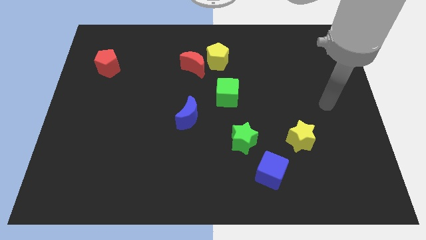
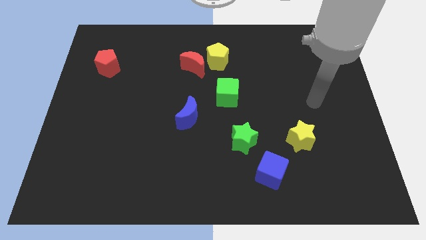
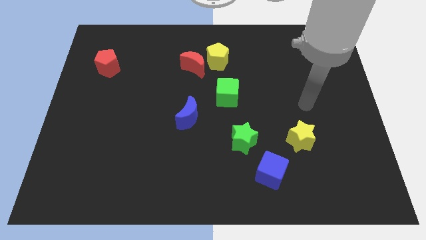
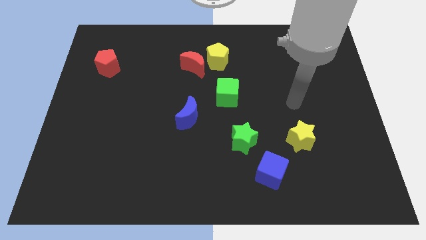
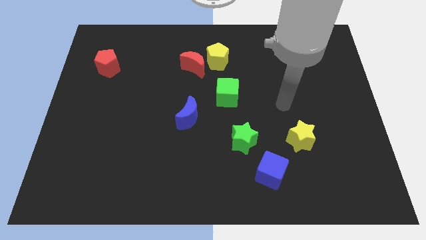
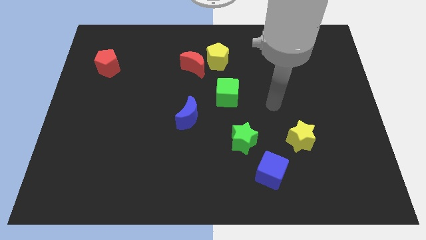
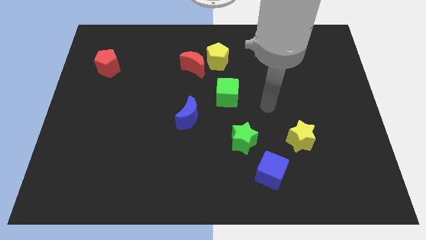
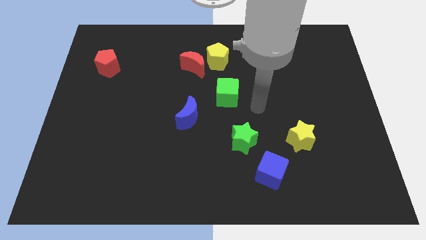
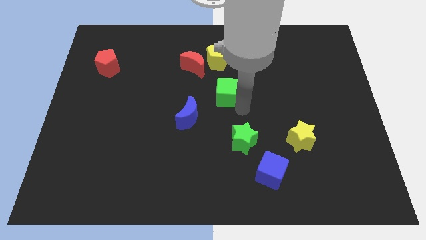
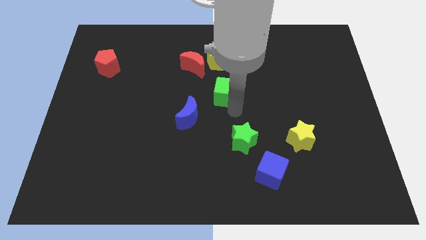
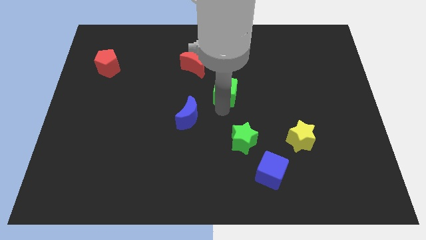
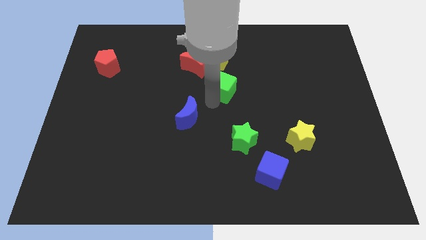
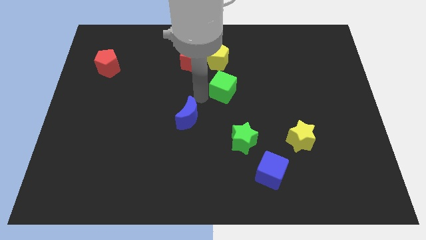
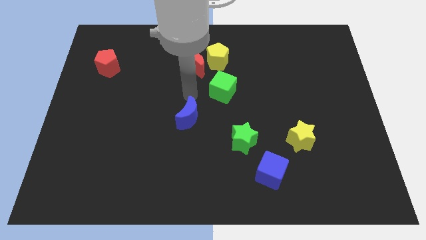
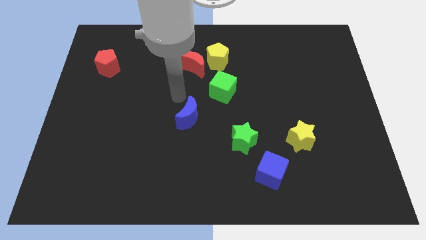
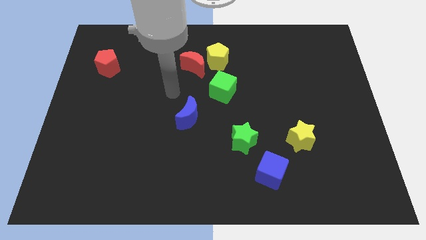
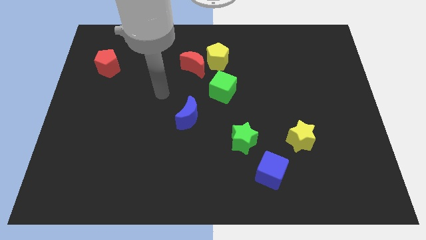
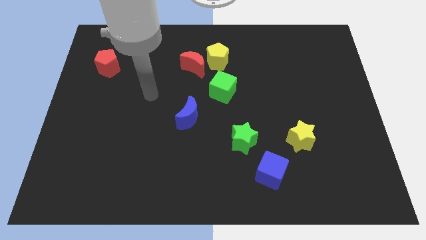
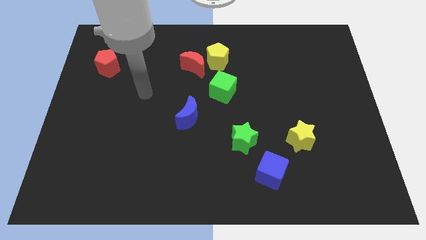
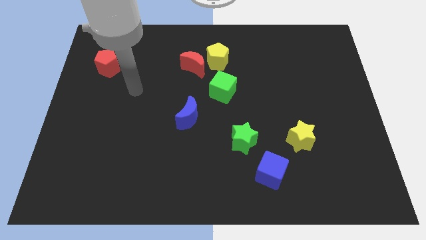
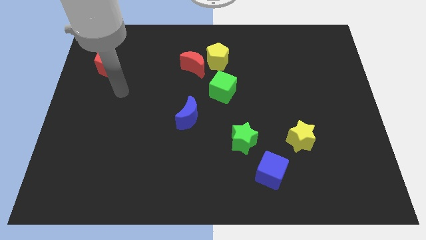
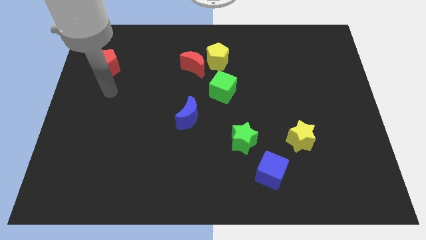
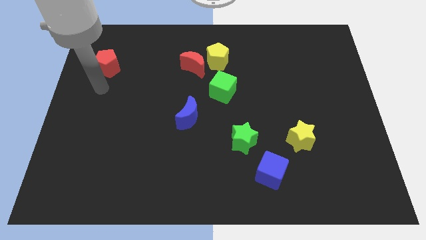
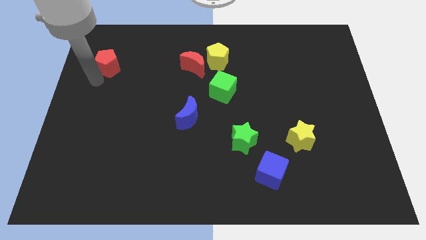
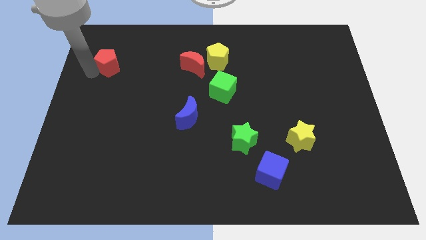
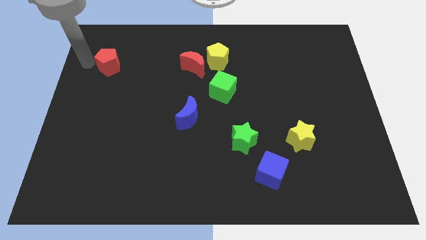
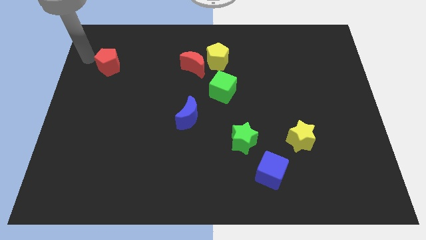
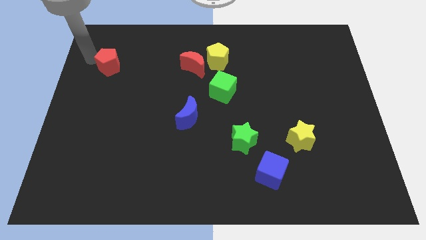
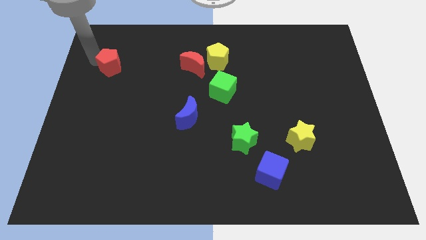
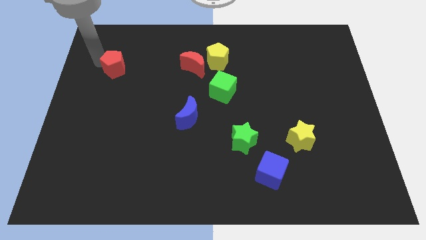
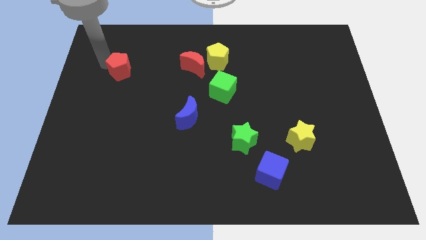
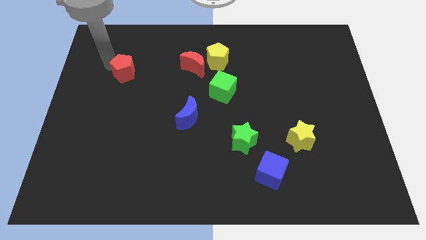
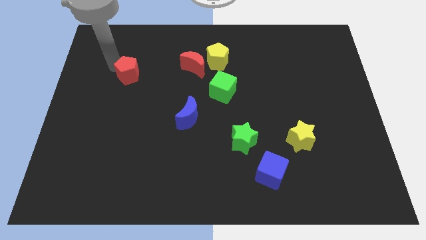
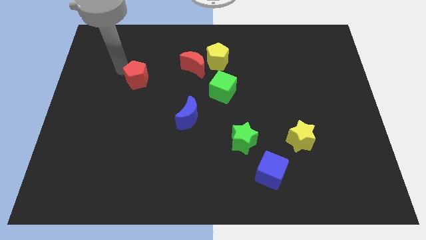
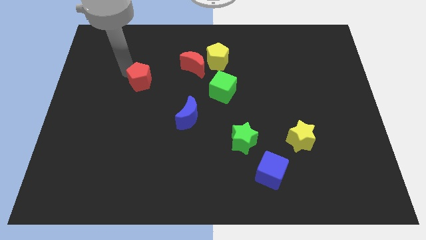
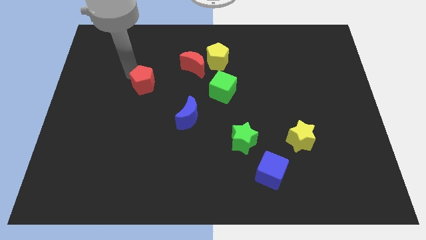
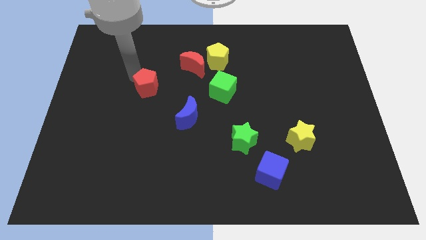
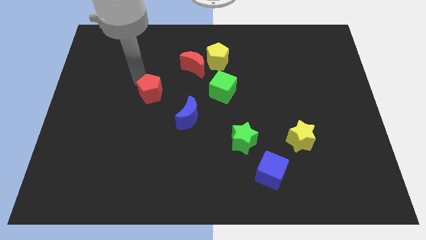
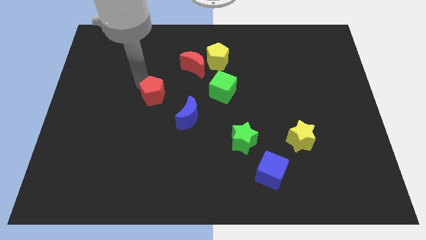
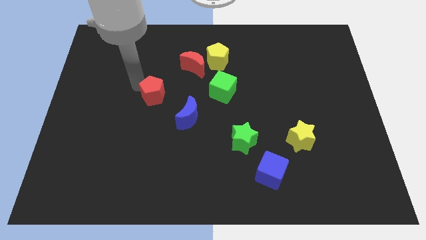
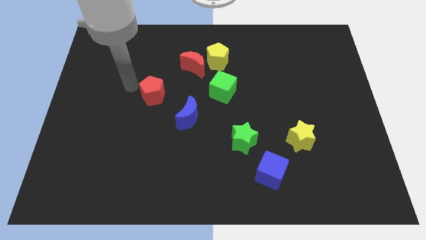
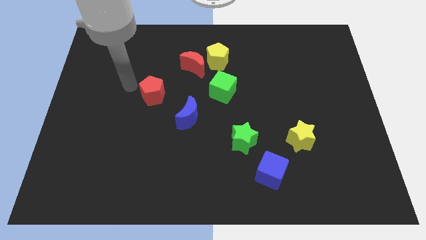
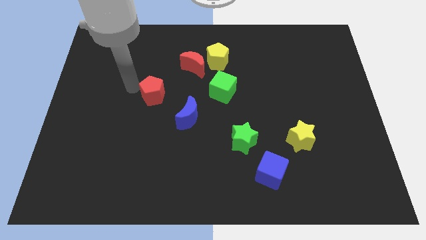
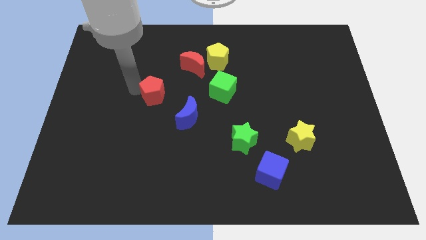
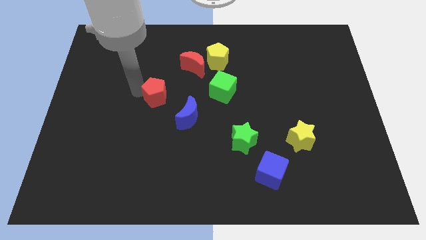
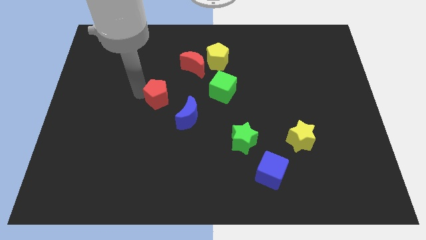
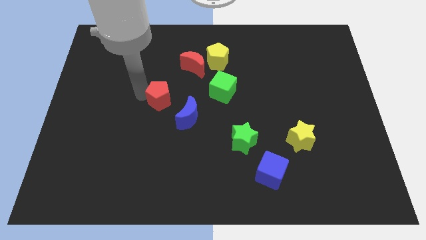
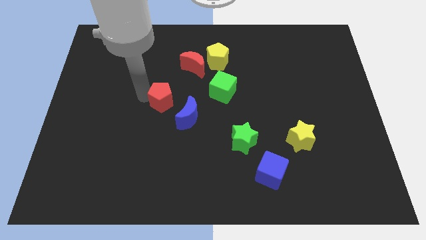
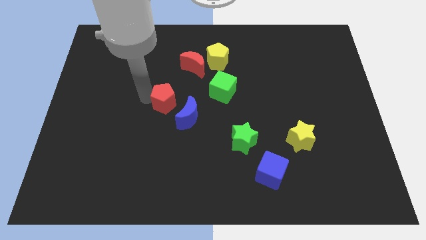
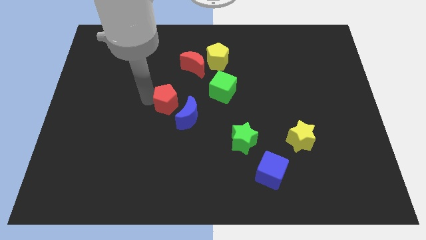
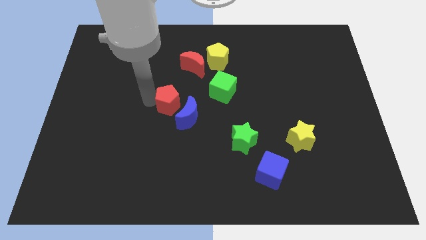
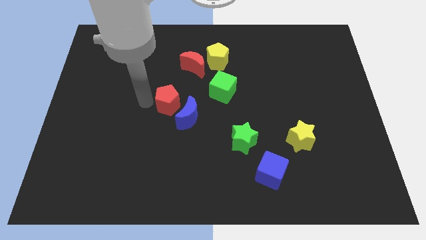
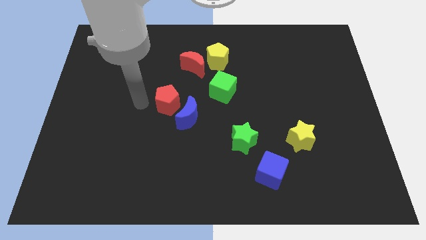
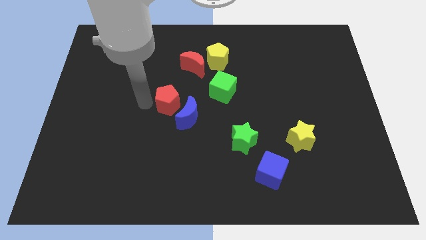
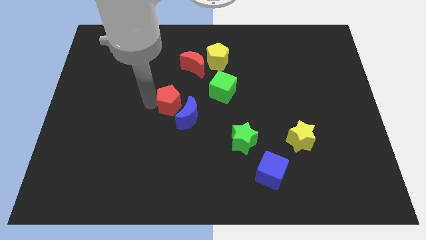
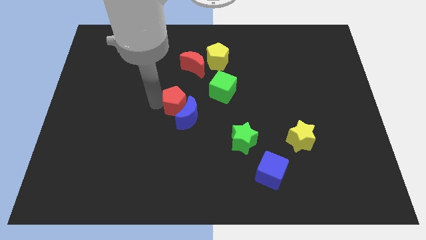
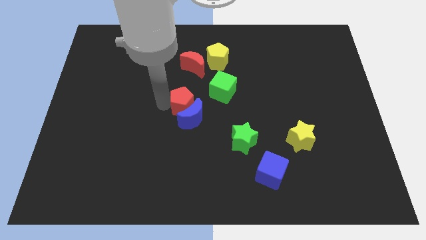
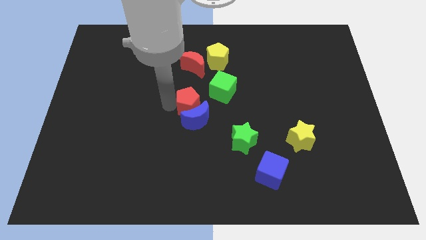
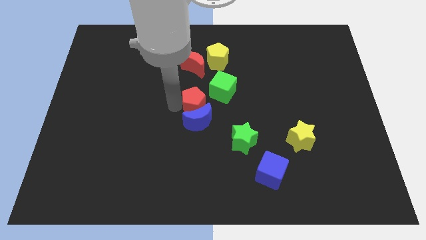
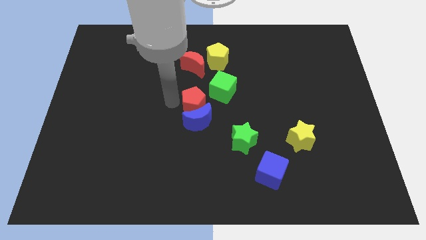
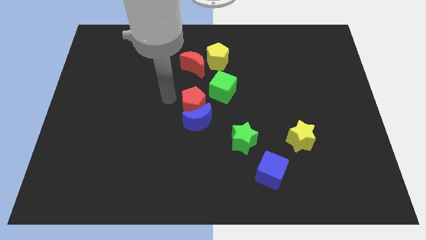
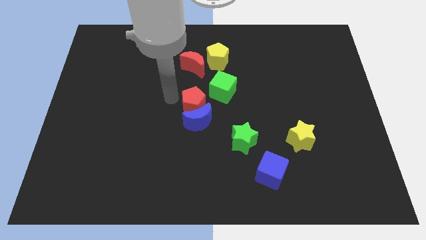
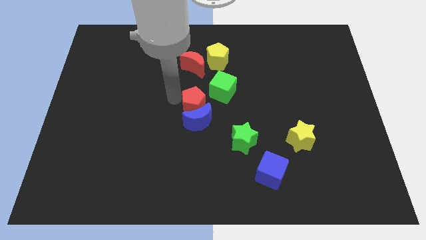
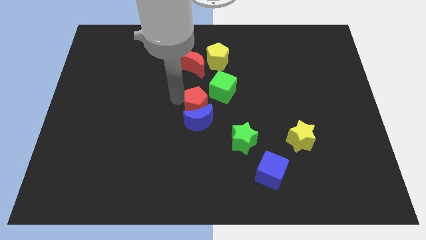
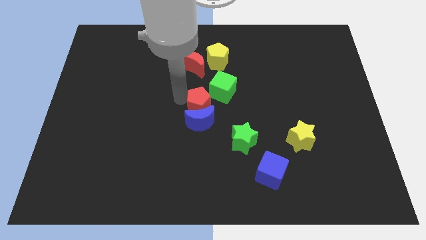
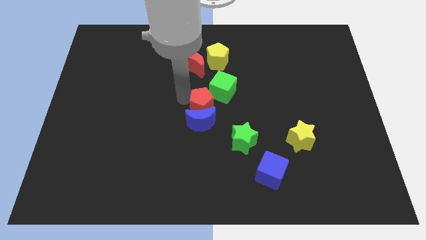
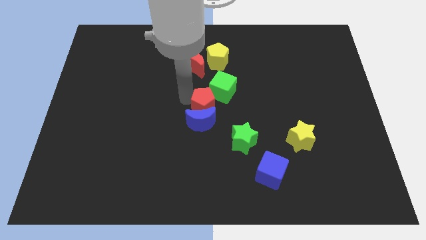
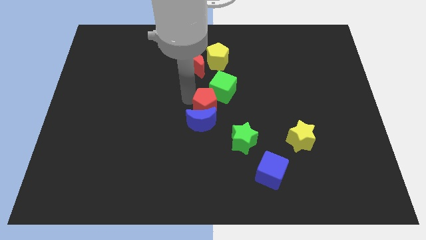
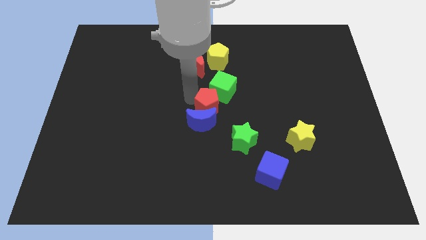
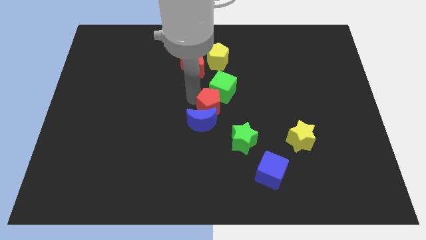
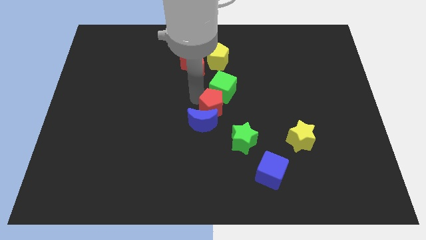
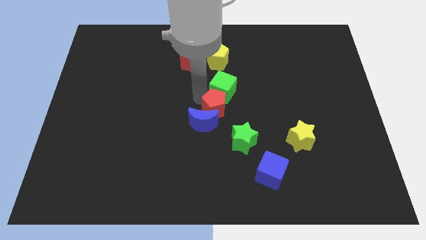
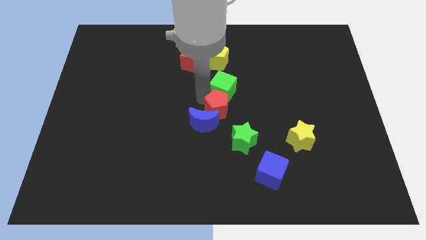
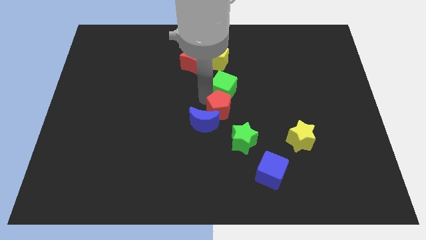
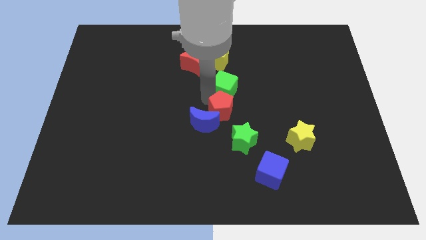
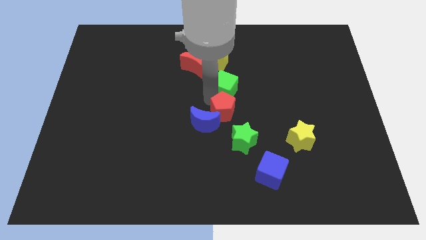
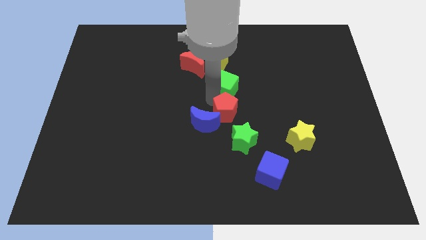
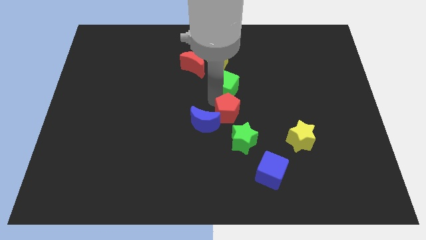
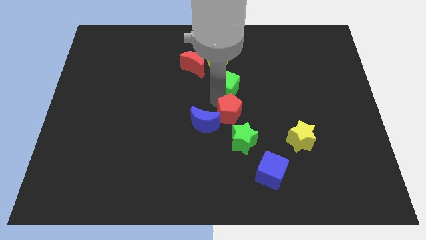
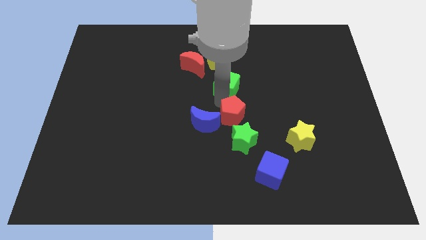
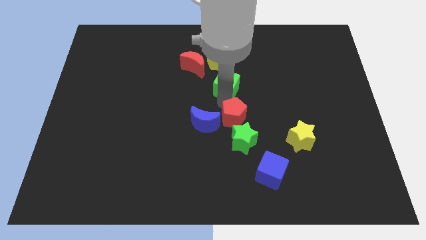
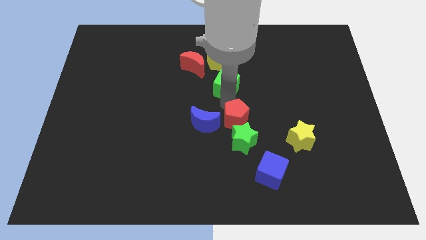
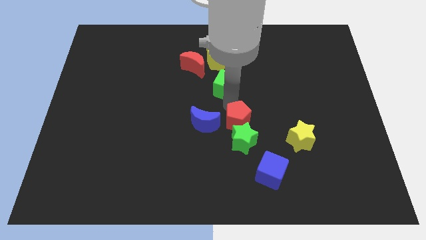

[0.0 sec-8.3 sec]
put the red pentagon next to the green star
